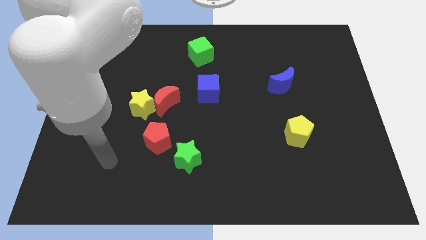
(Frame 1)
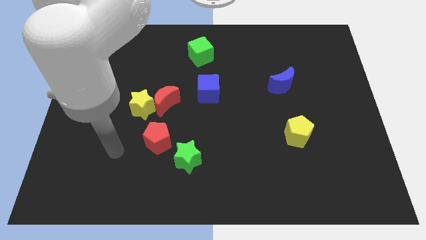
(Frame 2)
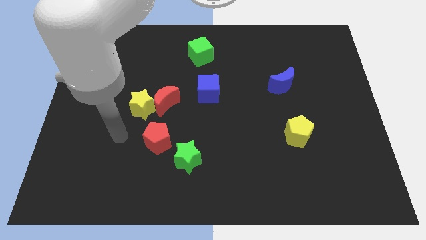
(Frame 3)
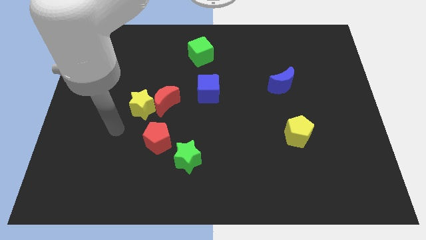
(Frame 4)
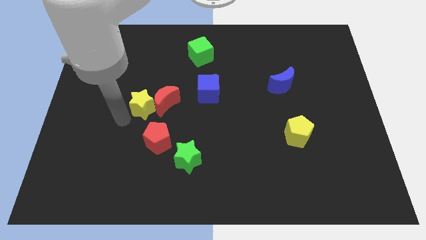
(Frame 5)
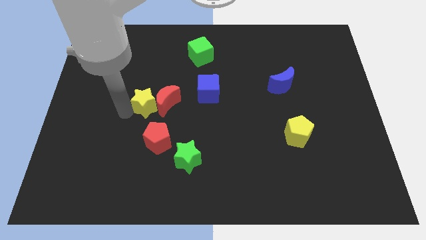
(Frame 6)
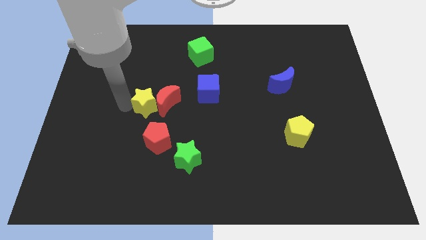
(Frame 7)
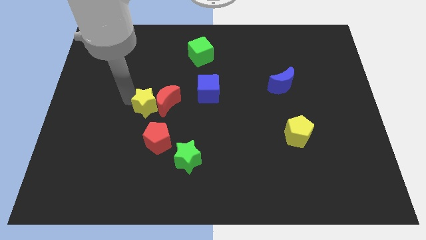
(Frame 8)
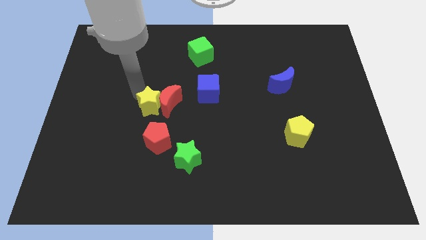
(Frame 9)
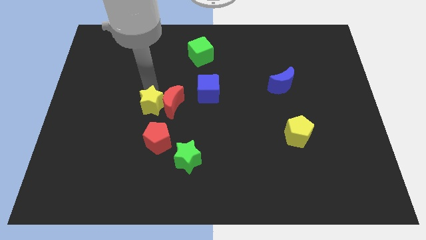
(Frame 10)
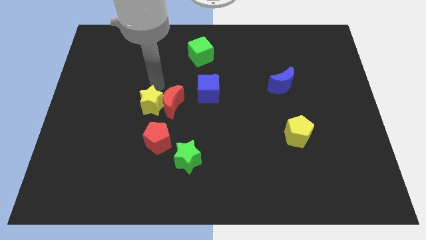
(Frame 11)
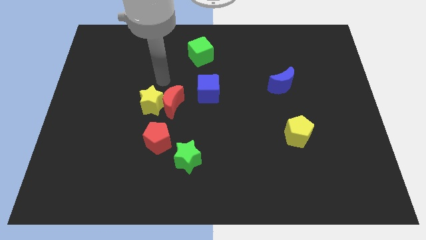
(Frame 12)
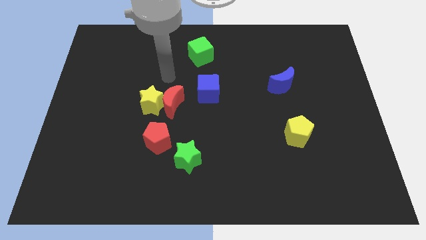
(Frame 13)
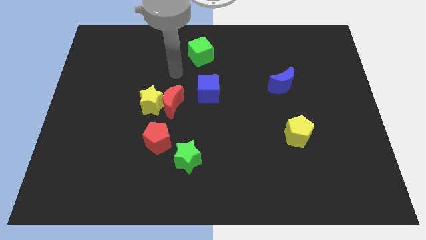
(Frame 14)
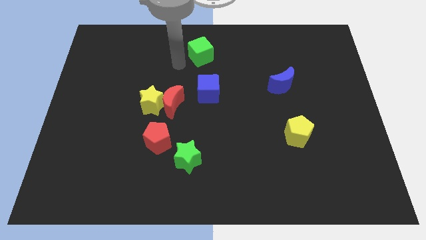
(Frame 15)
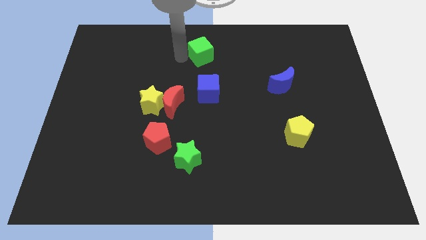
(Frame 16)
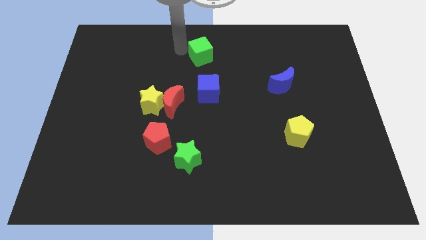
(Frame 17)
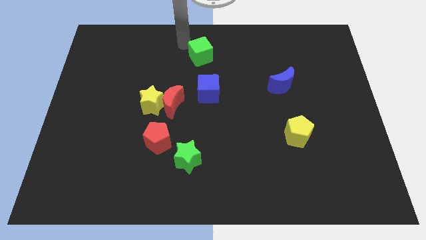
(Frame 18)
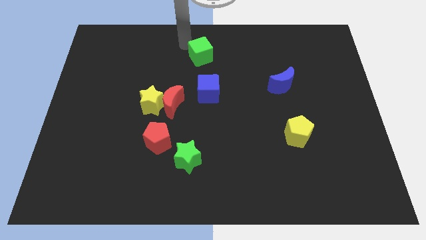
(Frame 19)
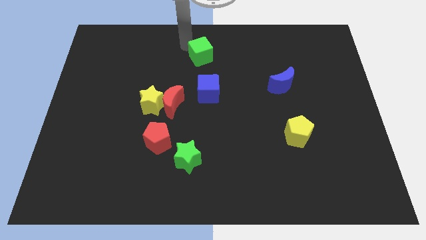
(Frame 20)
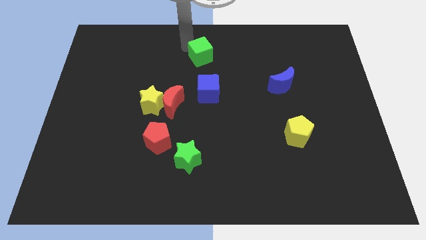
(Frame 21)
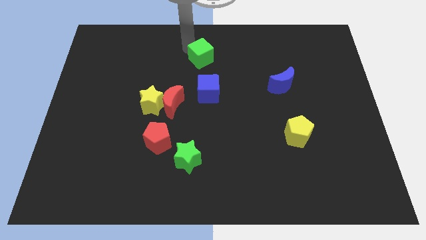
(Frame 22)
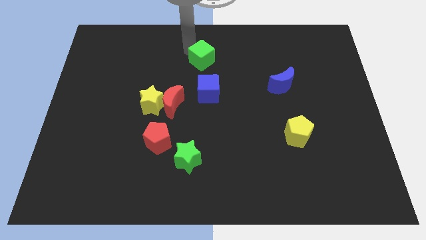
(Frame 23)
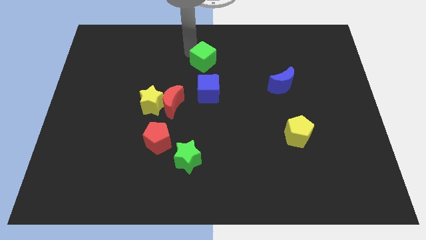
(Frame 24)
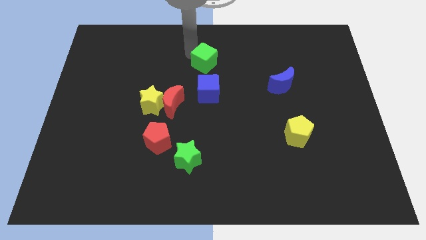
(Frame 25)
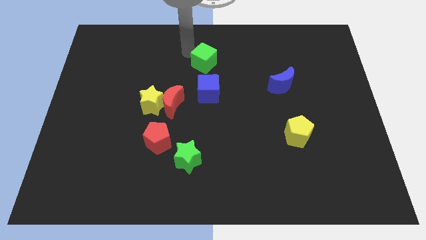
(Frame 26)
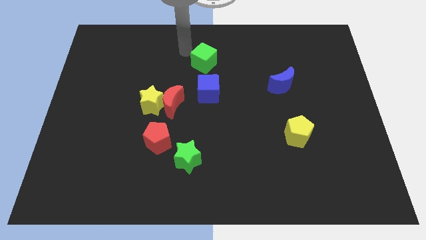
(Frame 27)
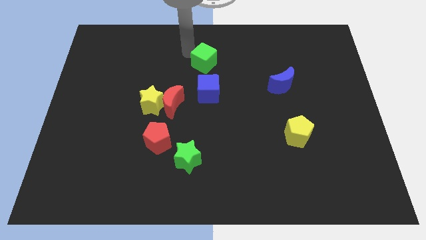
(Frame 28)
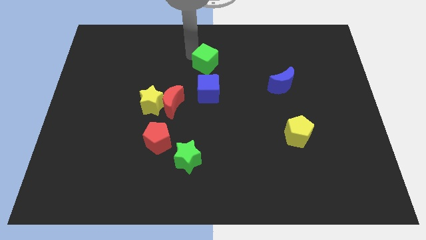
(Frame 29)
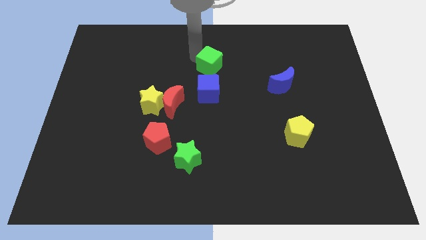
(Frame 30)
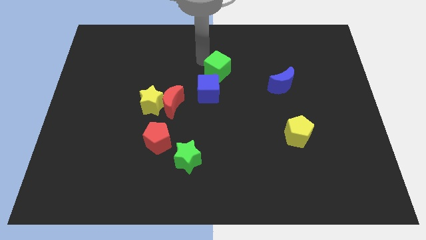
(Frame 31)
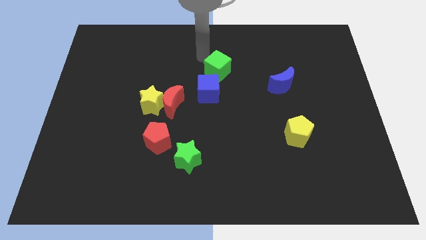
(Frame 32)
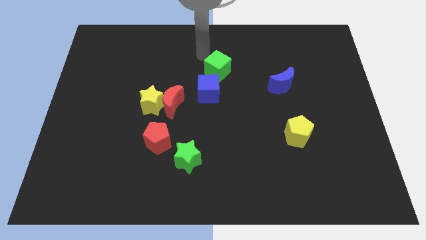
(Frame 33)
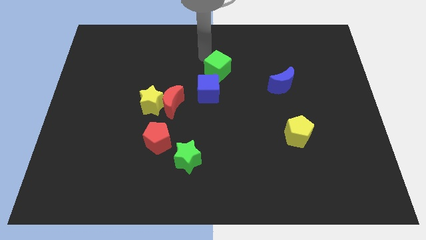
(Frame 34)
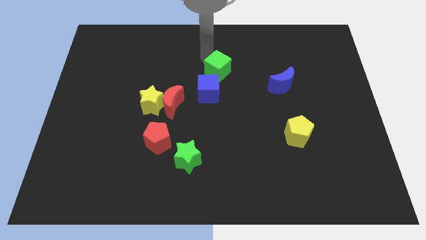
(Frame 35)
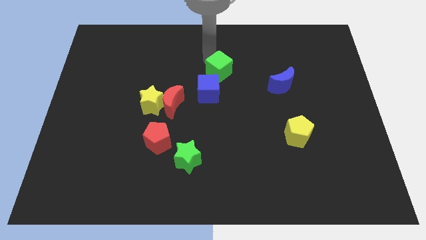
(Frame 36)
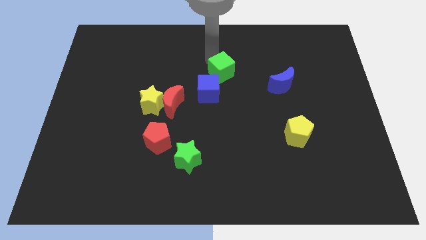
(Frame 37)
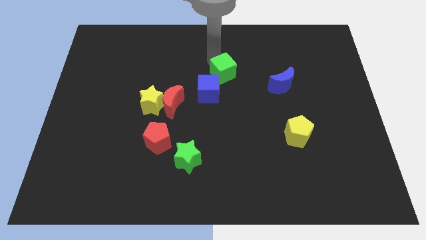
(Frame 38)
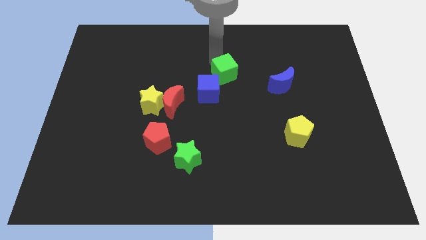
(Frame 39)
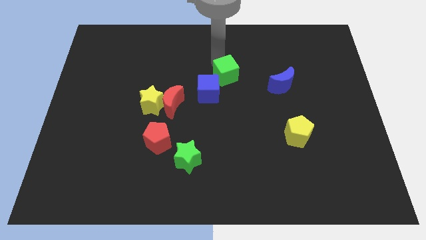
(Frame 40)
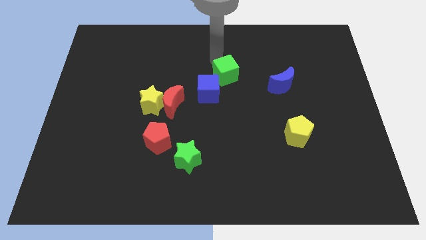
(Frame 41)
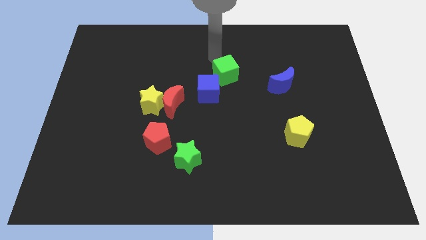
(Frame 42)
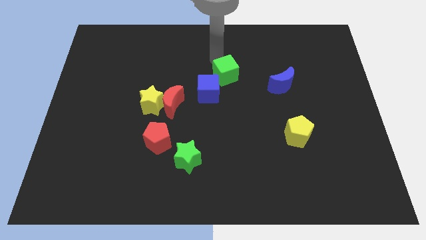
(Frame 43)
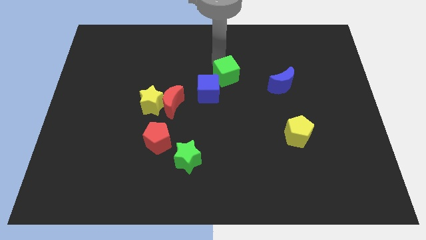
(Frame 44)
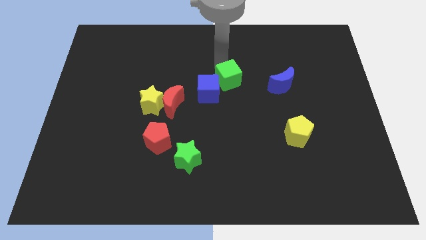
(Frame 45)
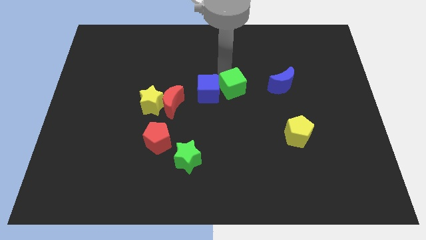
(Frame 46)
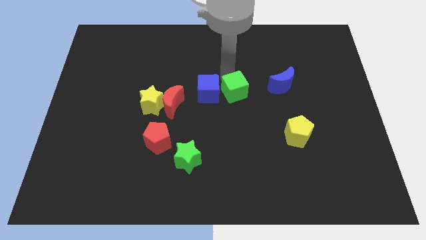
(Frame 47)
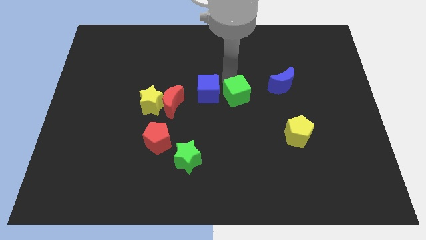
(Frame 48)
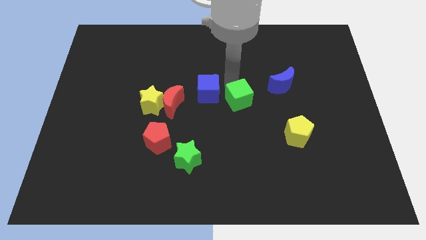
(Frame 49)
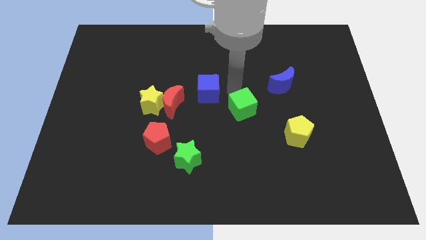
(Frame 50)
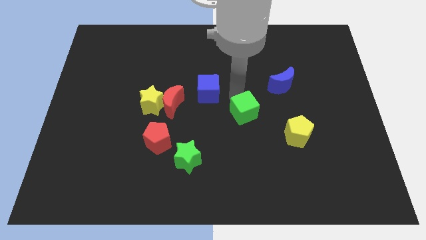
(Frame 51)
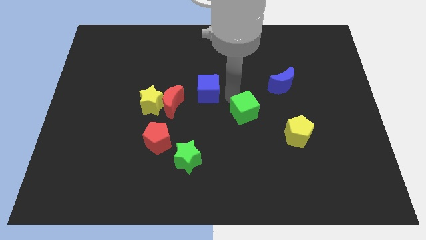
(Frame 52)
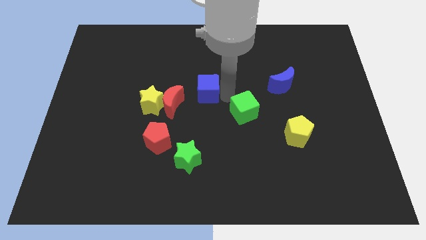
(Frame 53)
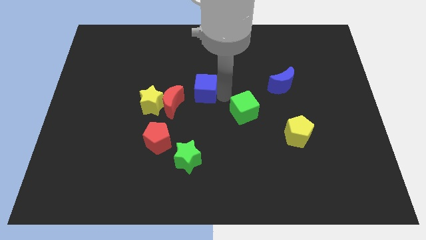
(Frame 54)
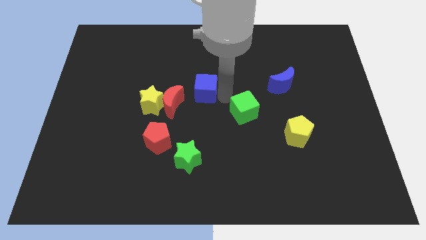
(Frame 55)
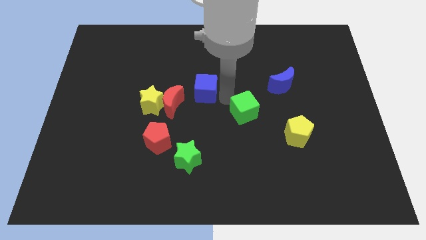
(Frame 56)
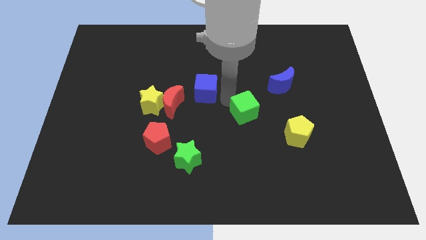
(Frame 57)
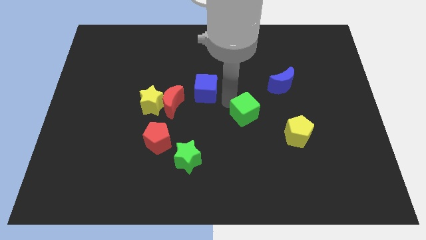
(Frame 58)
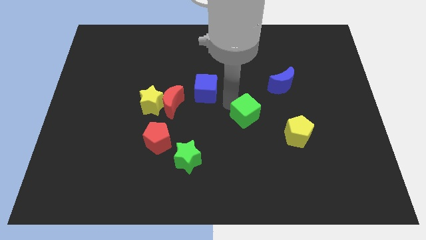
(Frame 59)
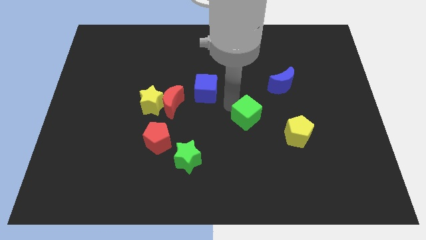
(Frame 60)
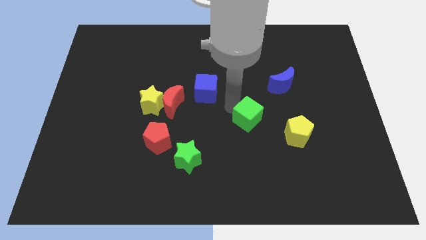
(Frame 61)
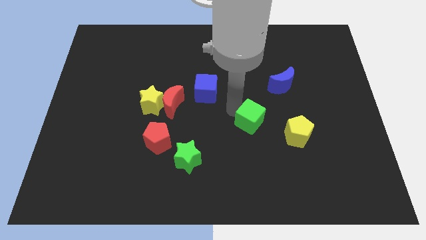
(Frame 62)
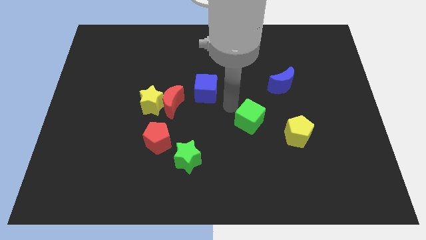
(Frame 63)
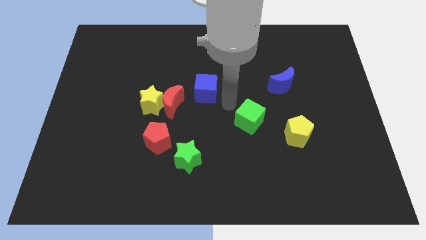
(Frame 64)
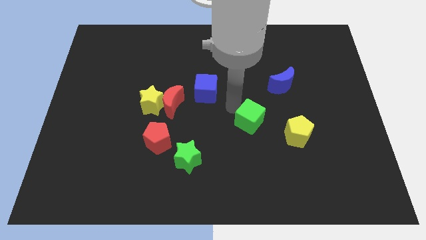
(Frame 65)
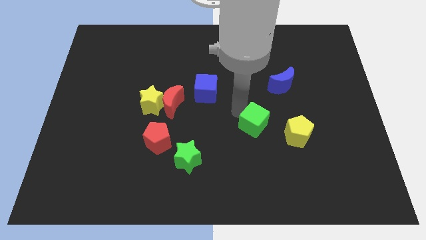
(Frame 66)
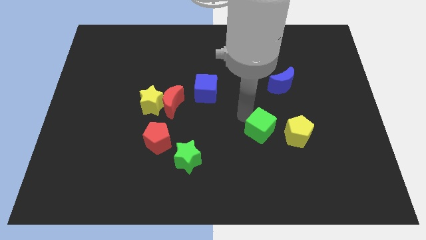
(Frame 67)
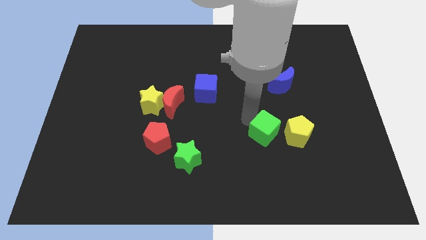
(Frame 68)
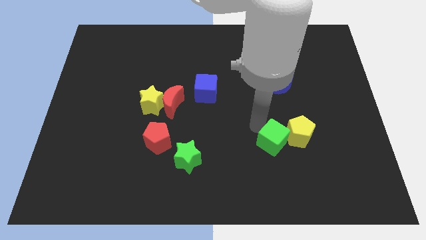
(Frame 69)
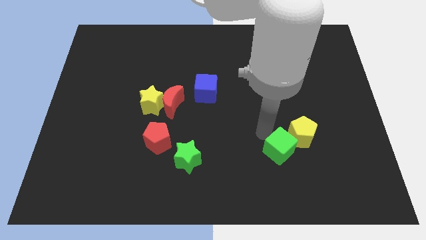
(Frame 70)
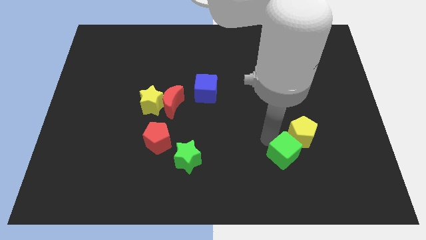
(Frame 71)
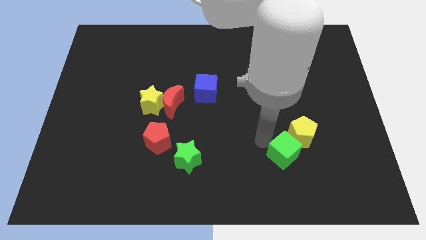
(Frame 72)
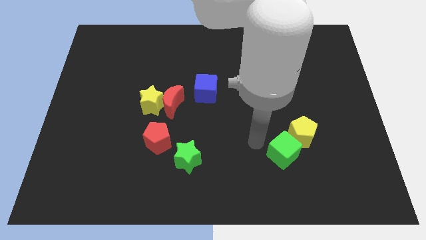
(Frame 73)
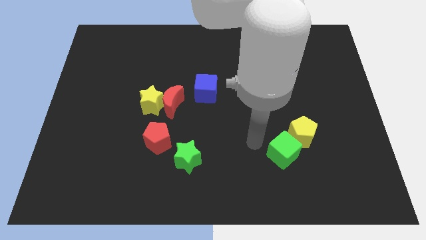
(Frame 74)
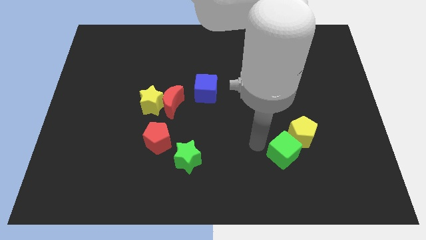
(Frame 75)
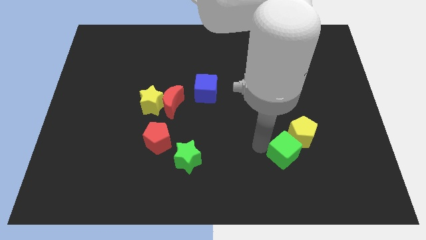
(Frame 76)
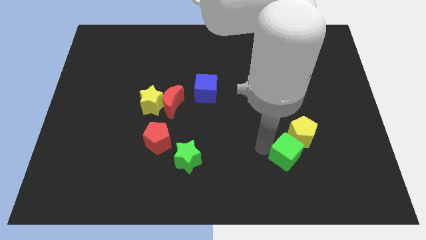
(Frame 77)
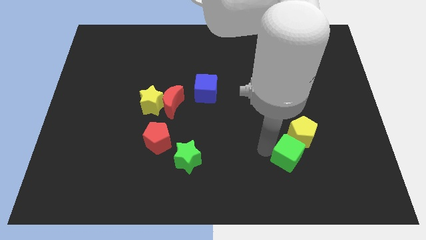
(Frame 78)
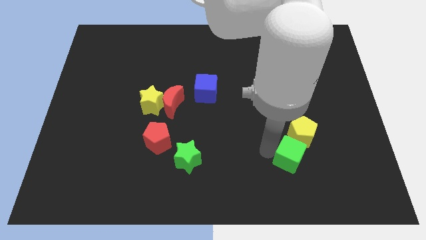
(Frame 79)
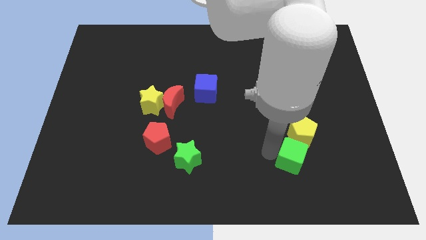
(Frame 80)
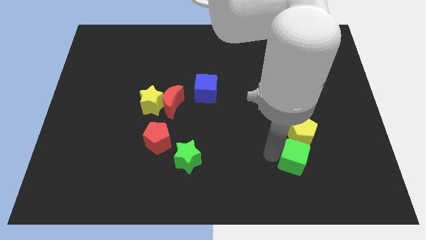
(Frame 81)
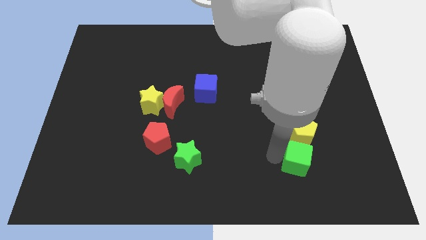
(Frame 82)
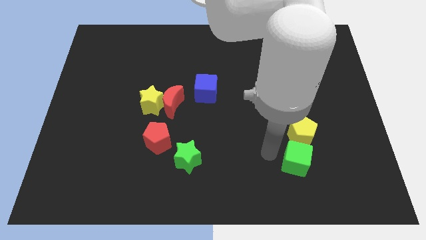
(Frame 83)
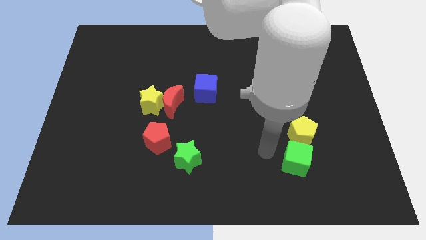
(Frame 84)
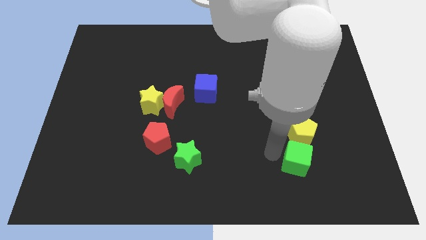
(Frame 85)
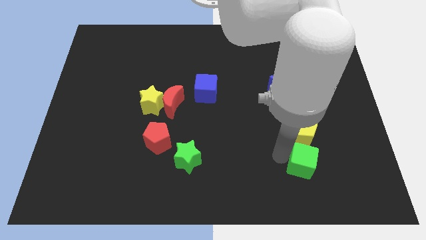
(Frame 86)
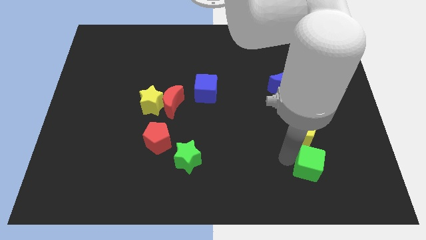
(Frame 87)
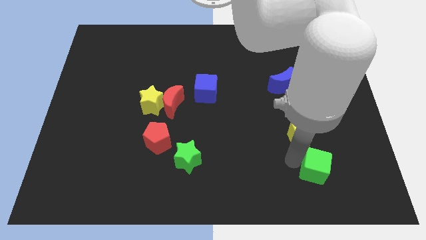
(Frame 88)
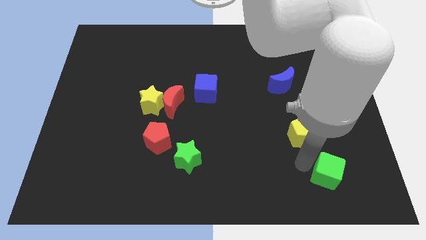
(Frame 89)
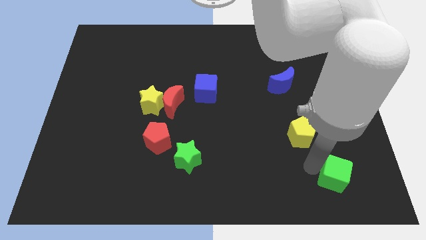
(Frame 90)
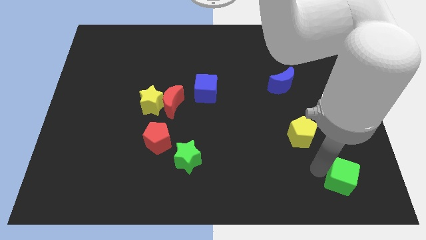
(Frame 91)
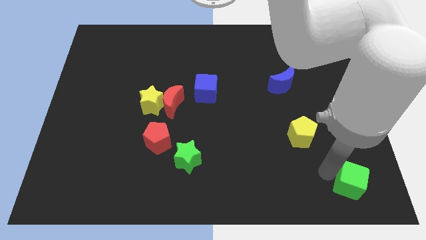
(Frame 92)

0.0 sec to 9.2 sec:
push the green cube to the bottom right of the board
